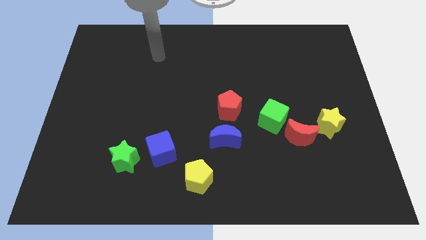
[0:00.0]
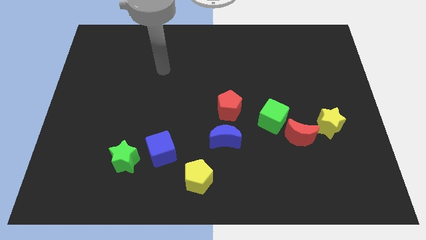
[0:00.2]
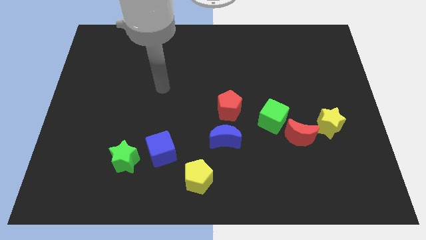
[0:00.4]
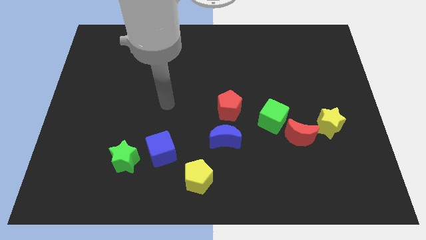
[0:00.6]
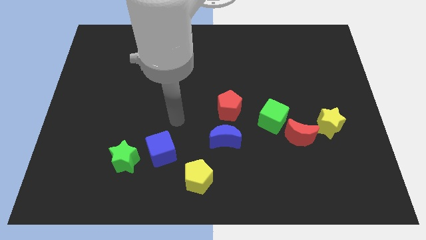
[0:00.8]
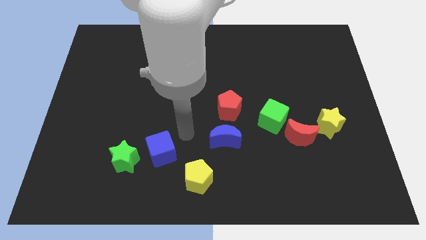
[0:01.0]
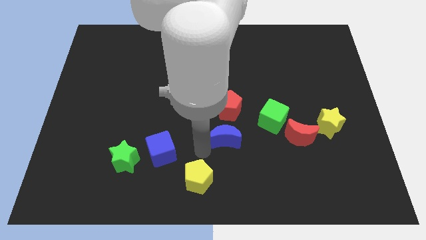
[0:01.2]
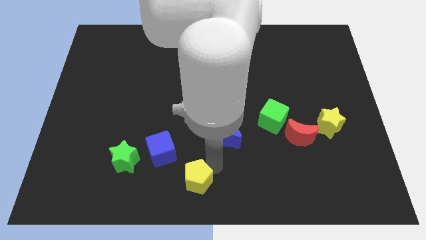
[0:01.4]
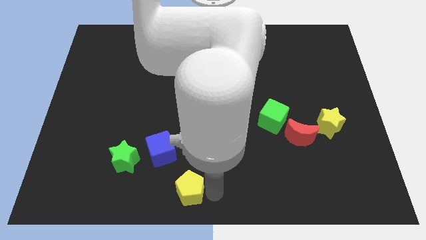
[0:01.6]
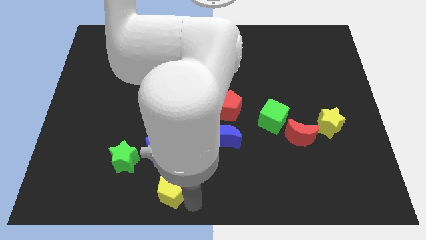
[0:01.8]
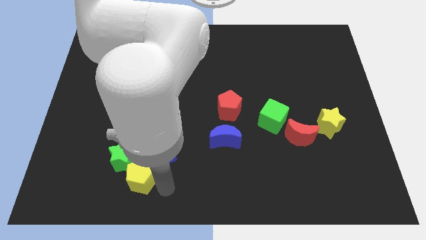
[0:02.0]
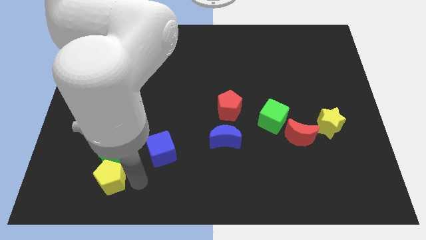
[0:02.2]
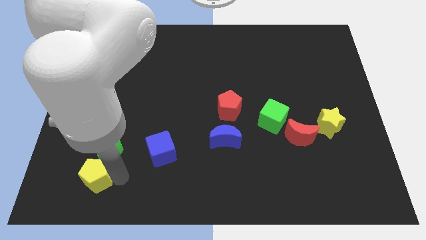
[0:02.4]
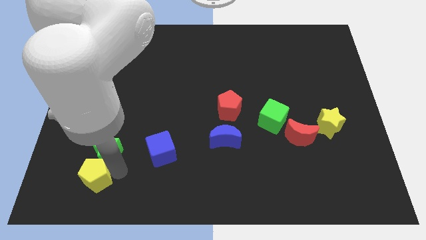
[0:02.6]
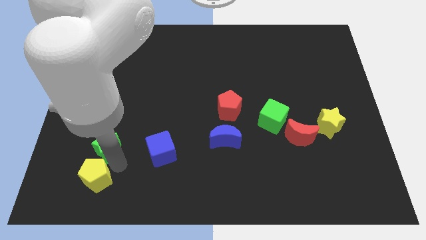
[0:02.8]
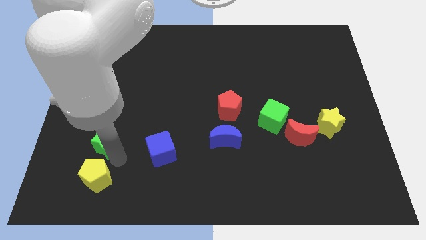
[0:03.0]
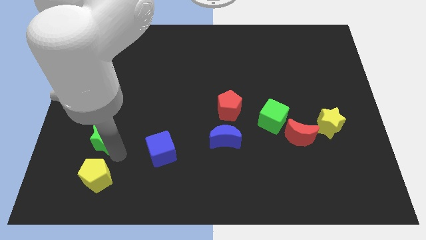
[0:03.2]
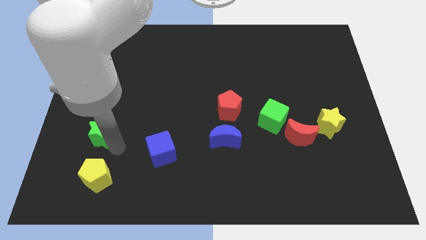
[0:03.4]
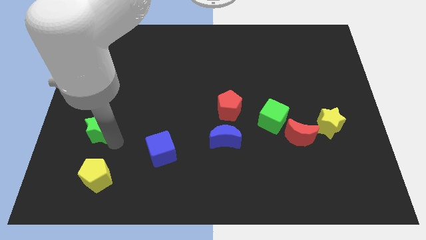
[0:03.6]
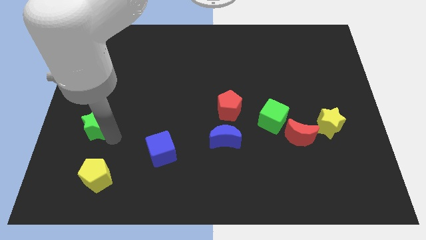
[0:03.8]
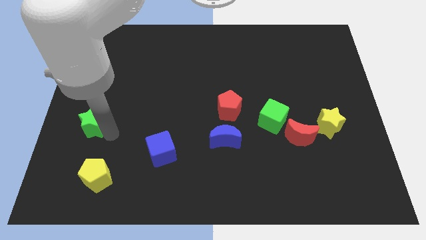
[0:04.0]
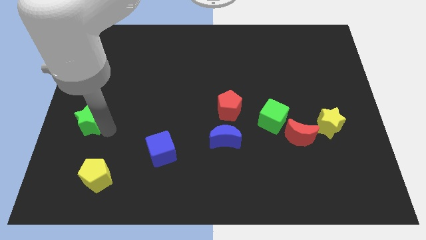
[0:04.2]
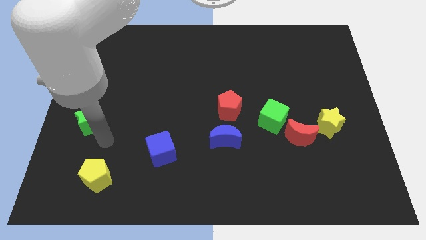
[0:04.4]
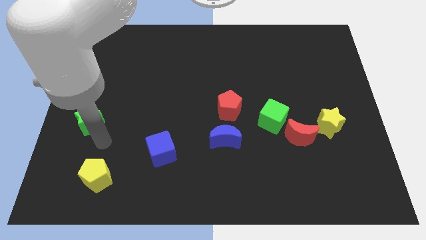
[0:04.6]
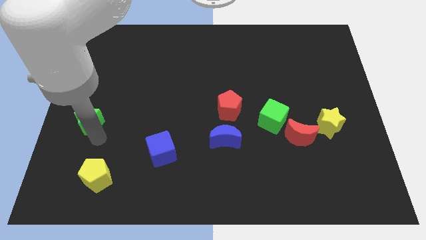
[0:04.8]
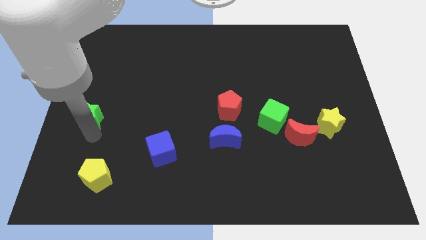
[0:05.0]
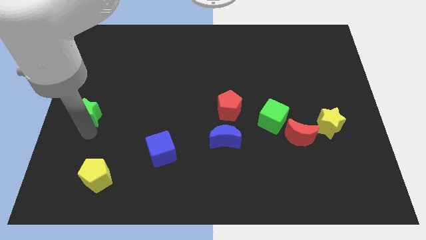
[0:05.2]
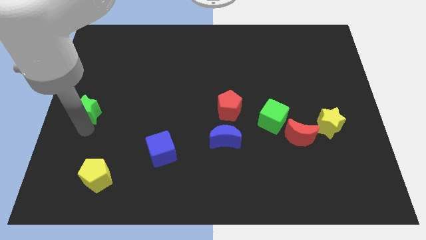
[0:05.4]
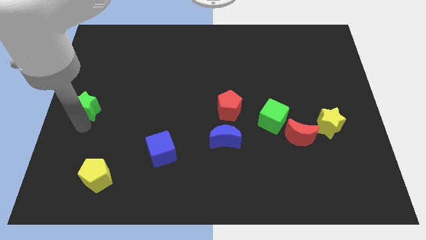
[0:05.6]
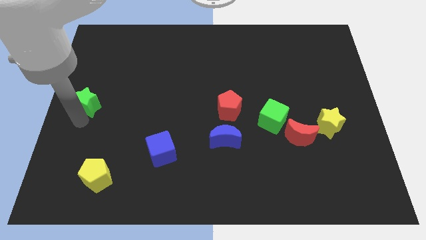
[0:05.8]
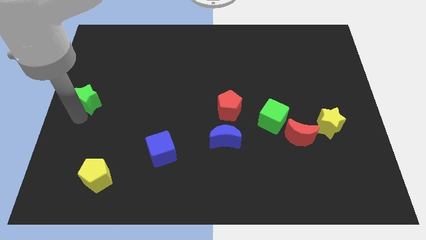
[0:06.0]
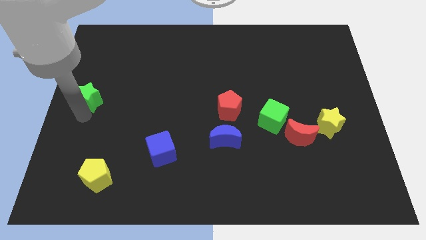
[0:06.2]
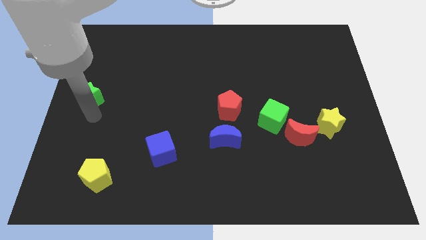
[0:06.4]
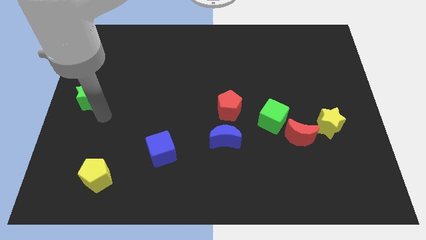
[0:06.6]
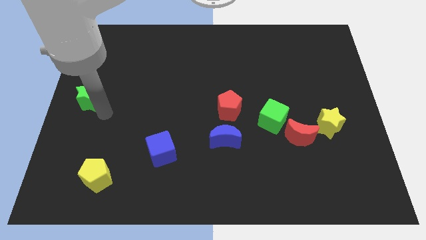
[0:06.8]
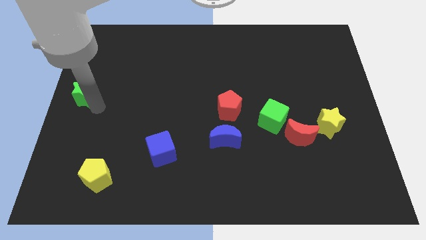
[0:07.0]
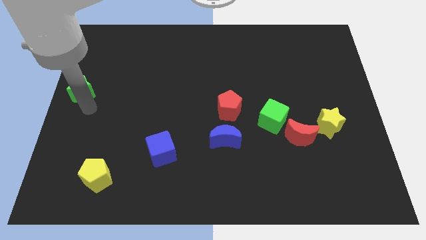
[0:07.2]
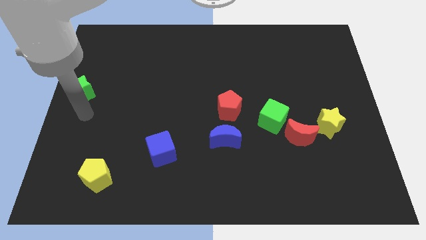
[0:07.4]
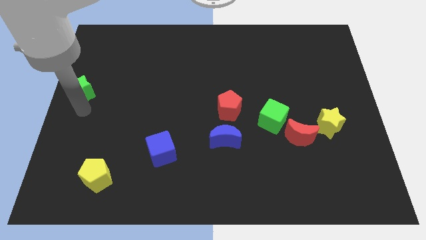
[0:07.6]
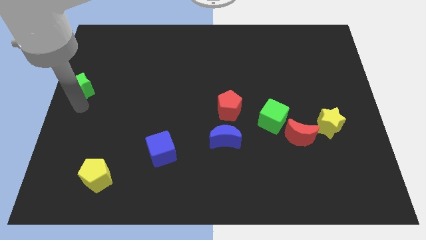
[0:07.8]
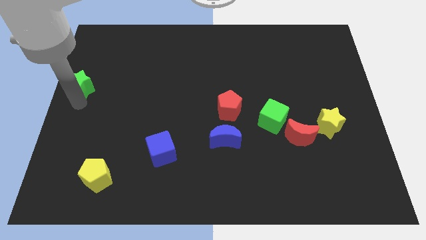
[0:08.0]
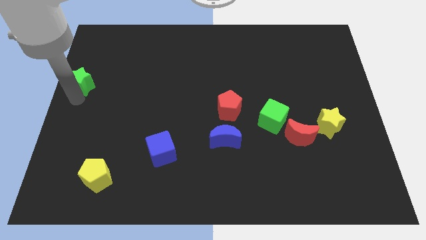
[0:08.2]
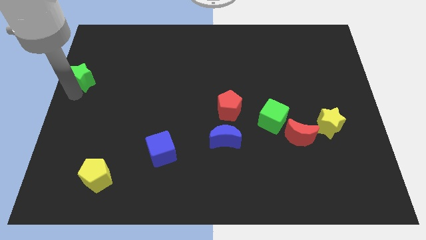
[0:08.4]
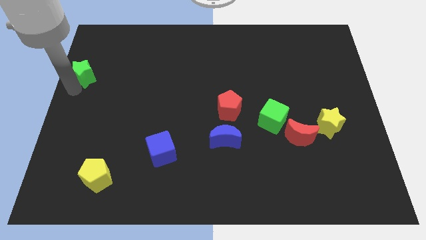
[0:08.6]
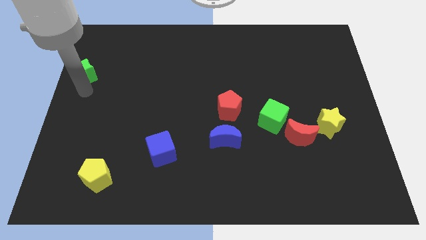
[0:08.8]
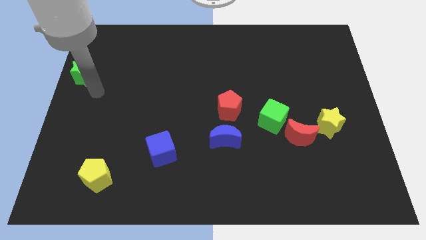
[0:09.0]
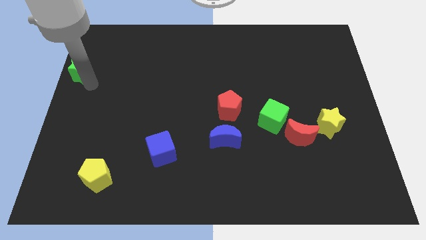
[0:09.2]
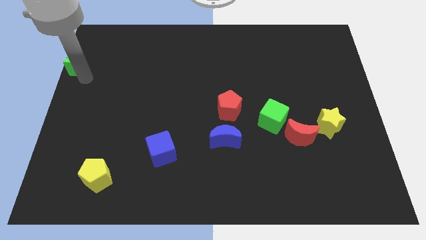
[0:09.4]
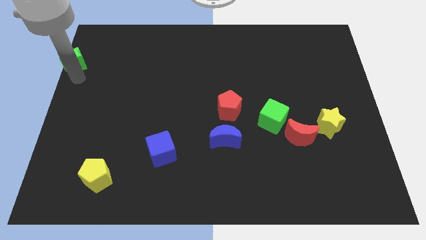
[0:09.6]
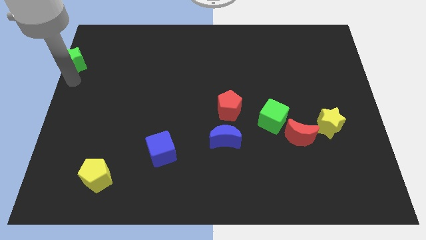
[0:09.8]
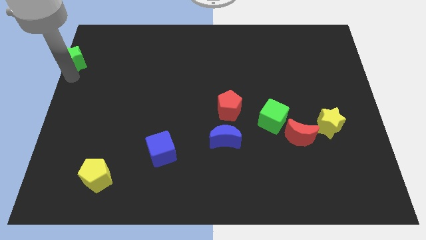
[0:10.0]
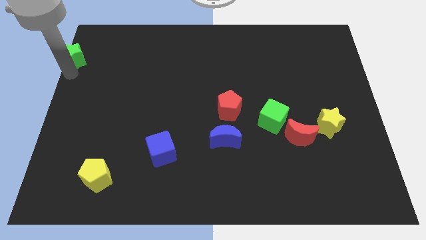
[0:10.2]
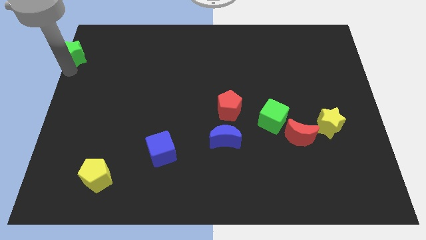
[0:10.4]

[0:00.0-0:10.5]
move the green star to the upper left corner
